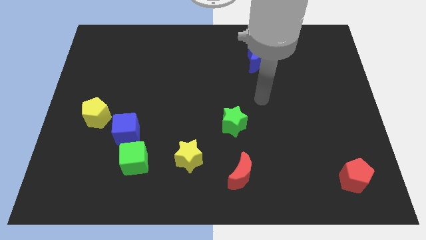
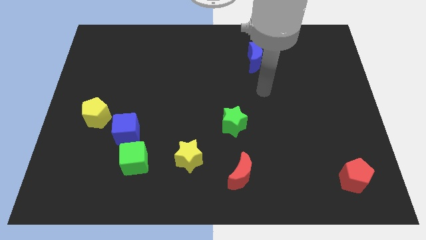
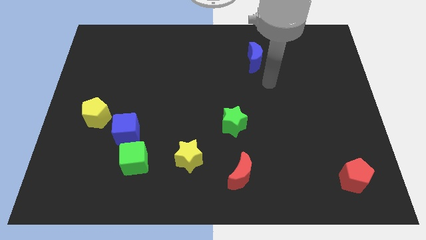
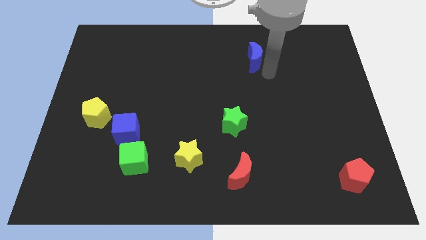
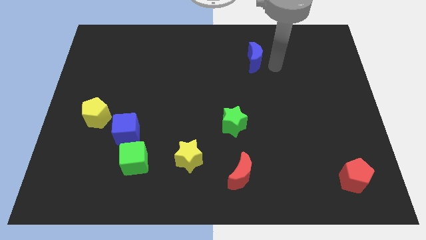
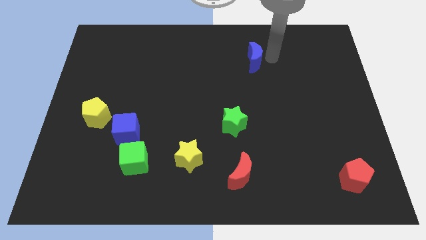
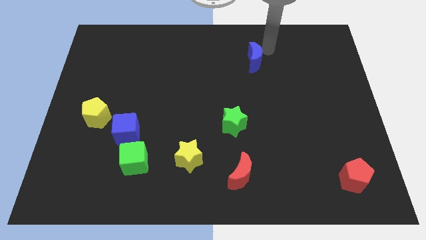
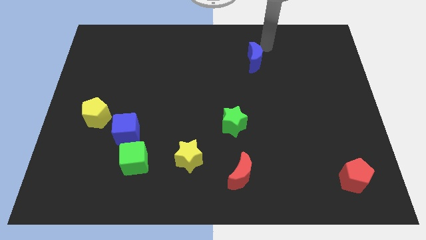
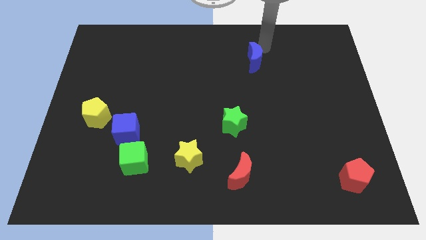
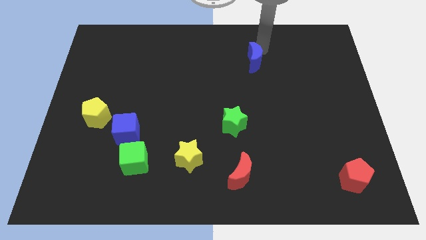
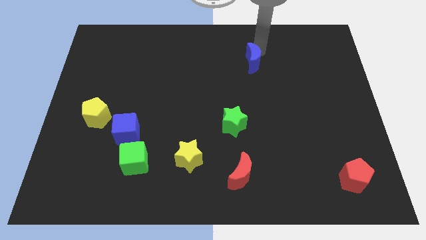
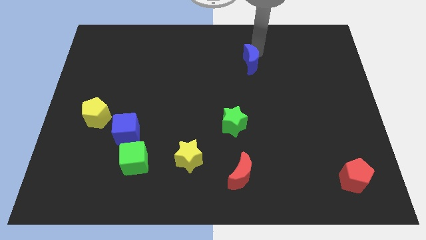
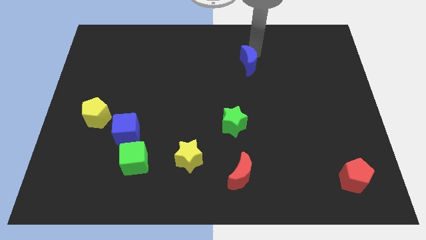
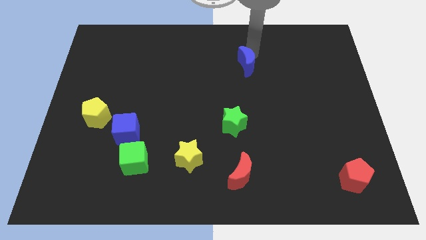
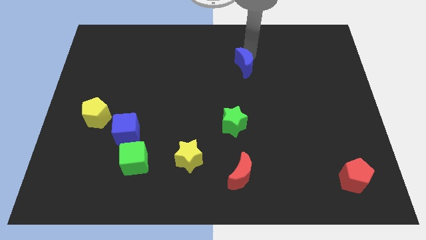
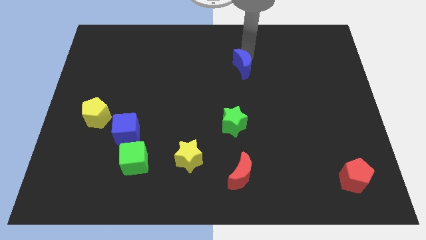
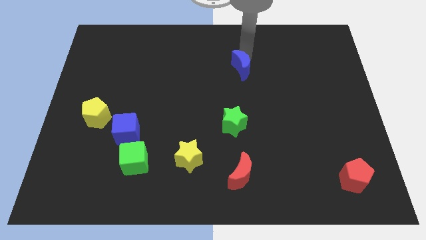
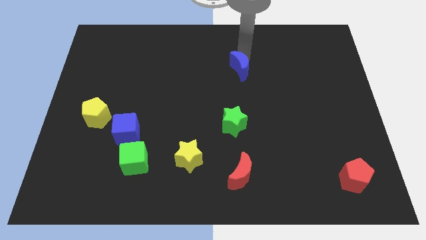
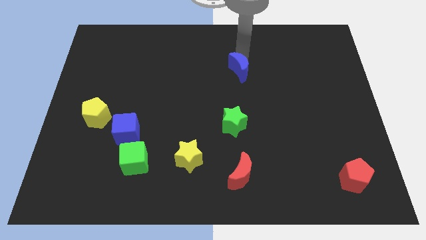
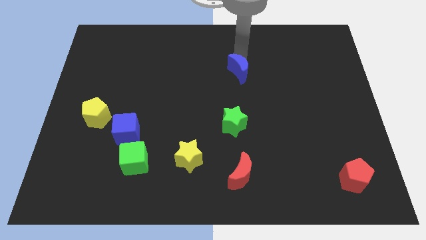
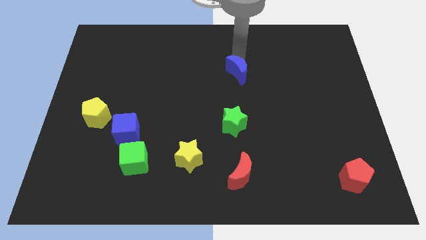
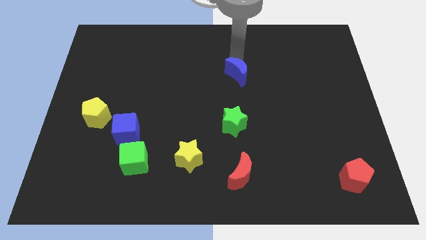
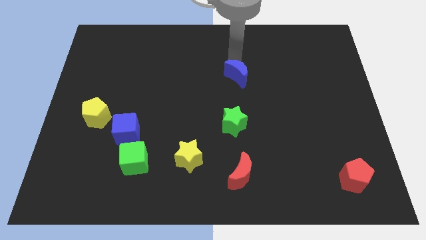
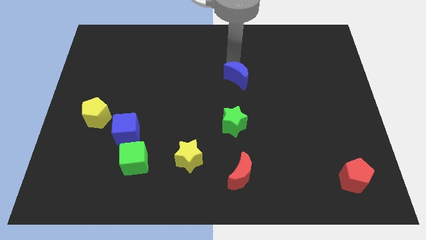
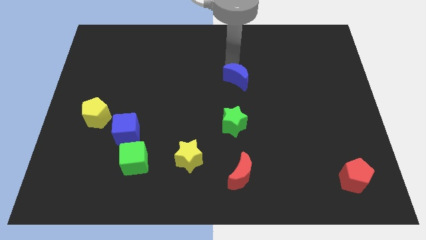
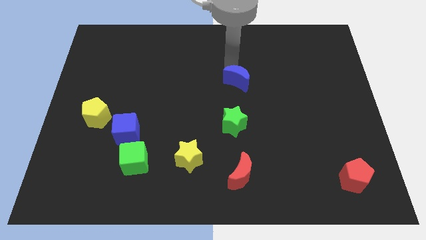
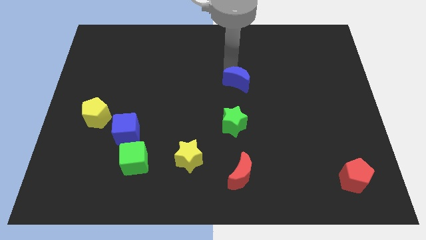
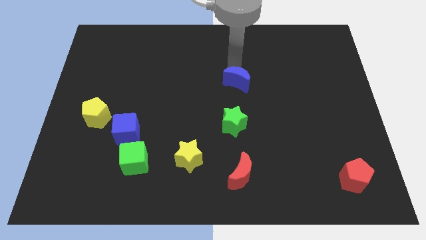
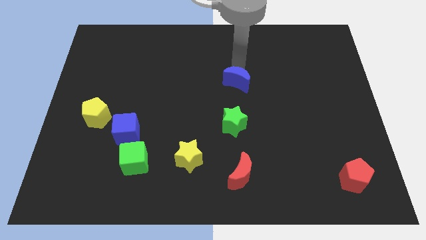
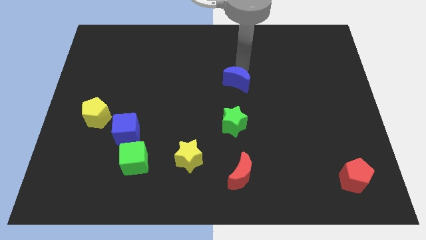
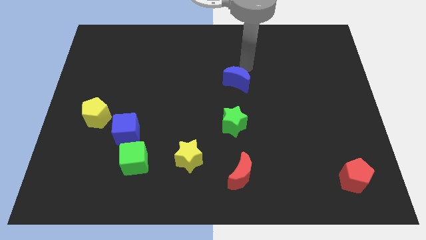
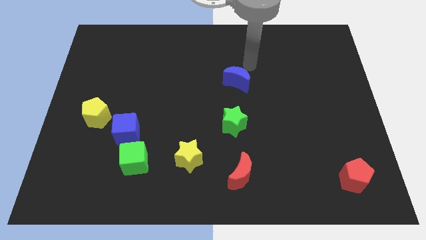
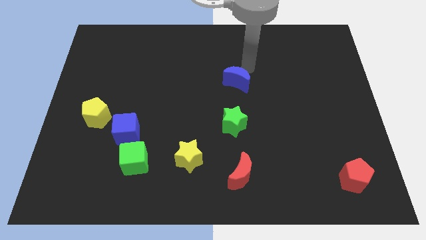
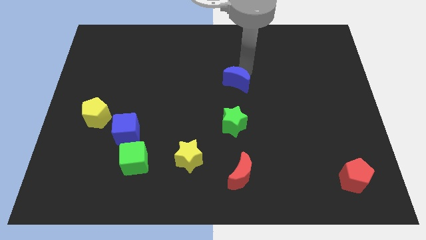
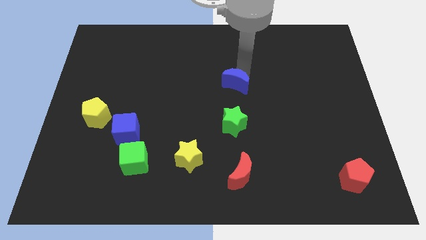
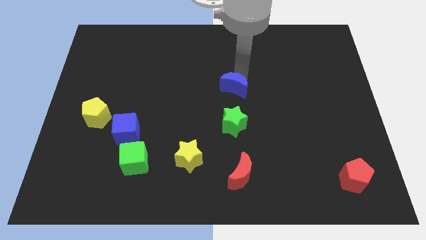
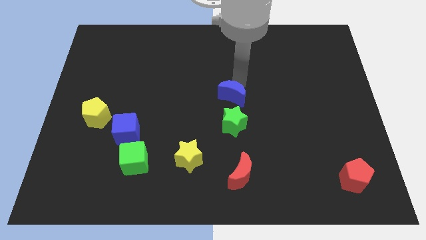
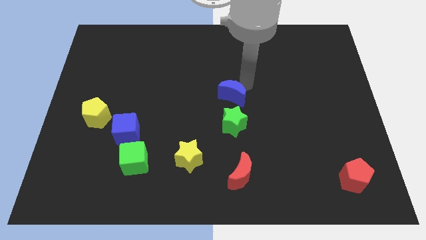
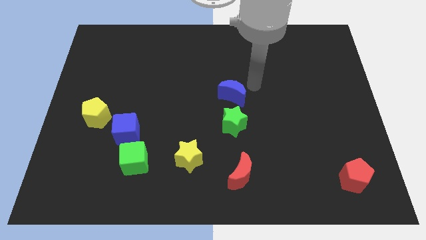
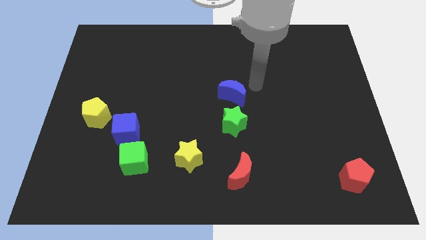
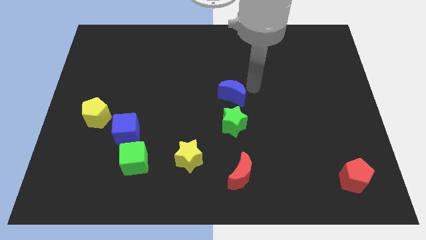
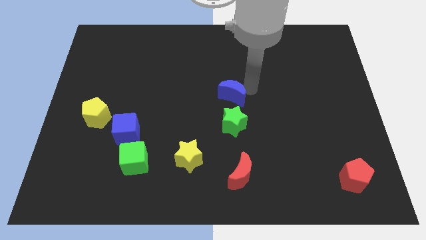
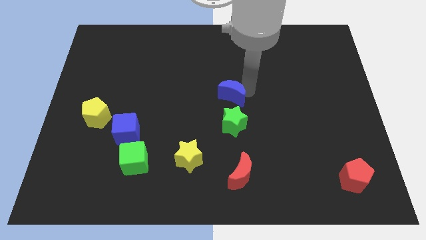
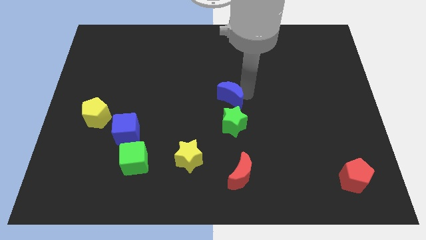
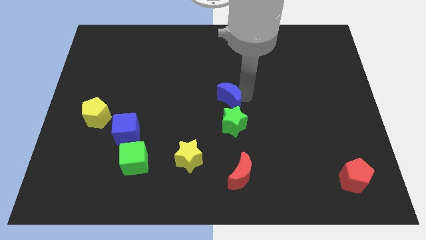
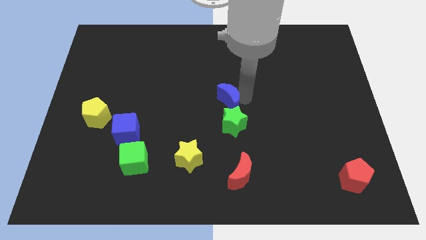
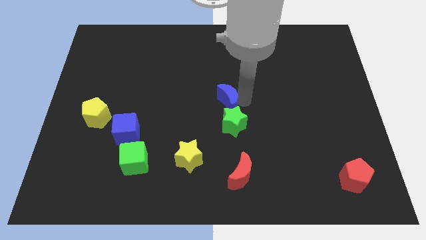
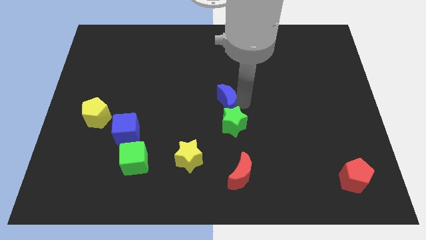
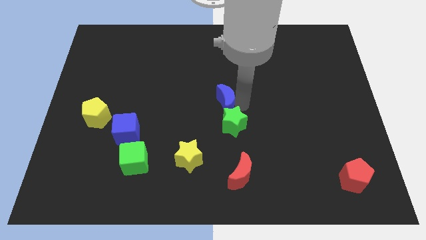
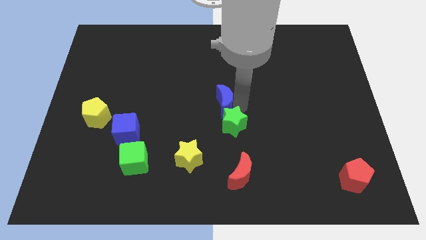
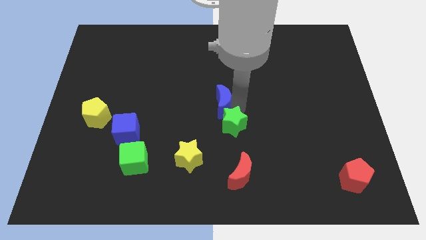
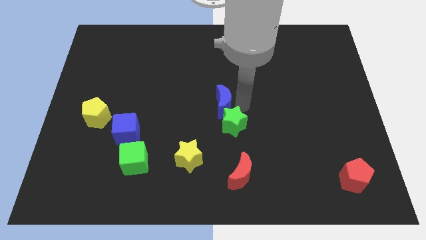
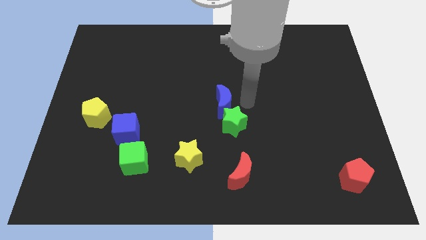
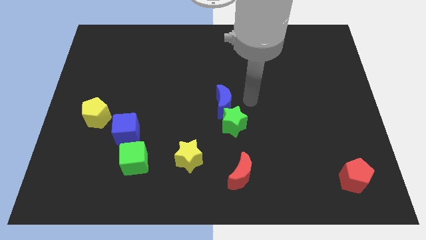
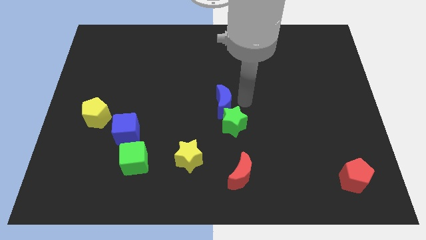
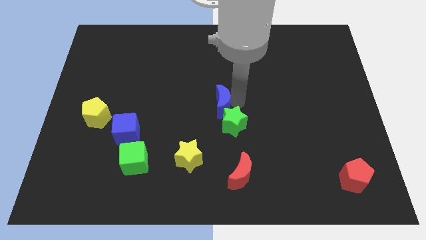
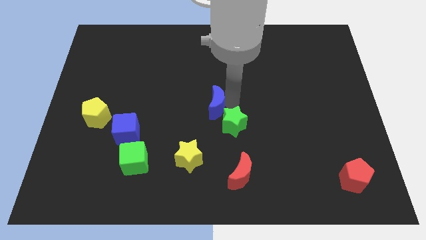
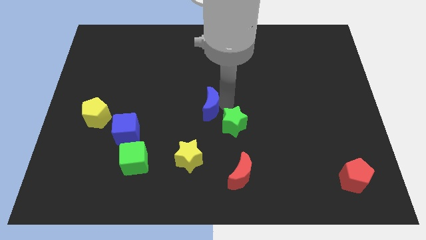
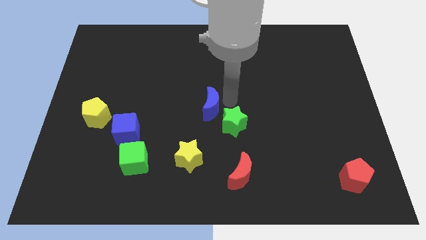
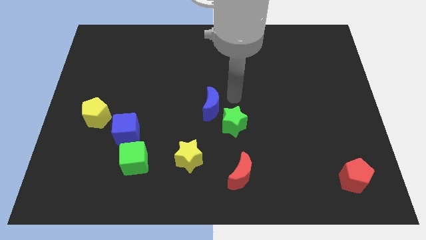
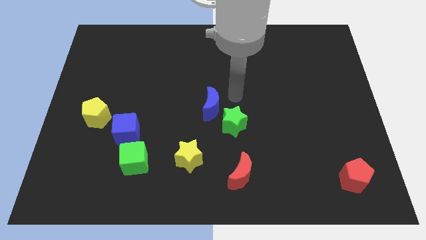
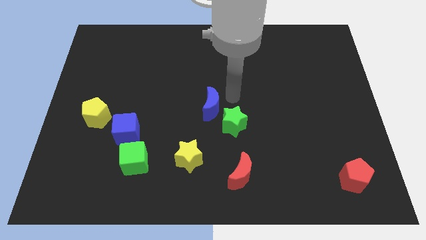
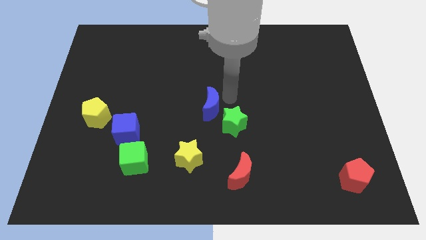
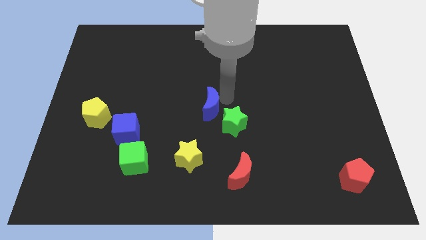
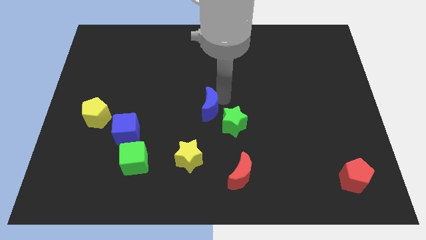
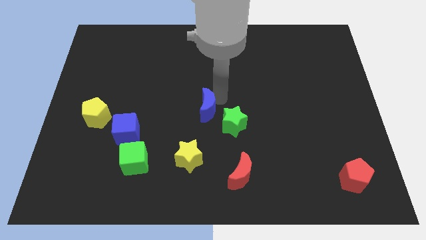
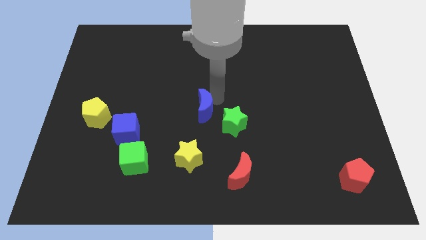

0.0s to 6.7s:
push the blue moon down and to the left diagonally

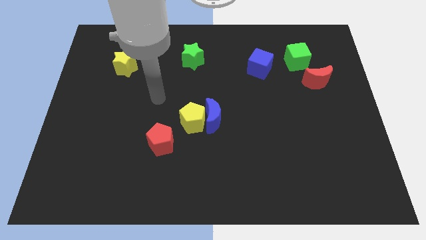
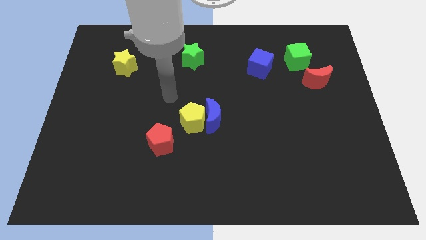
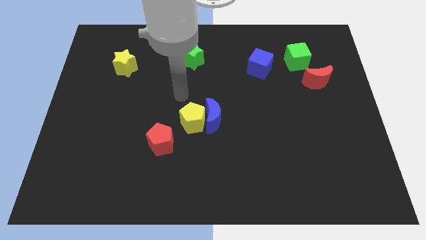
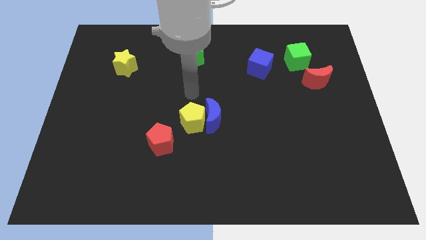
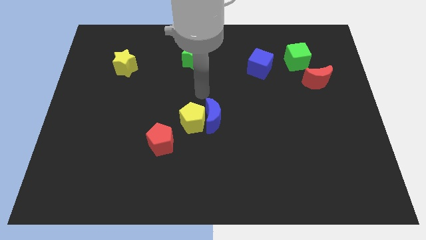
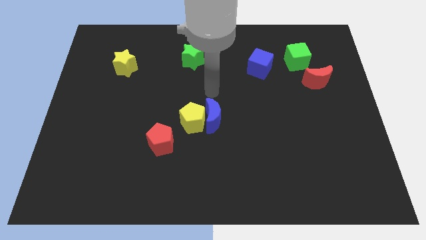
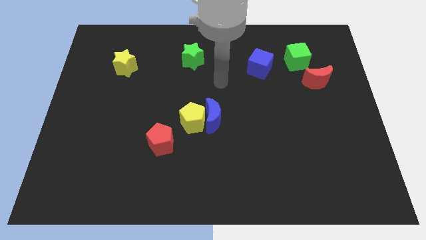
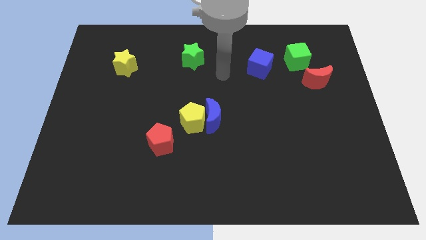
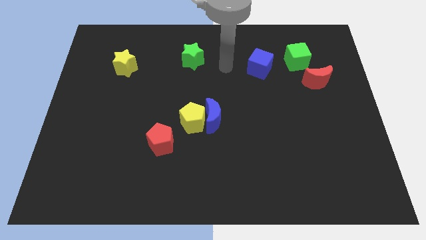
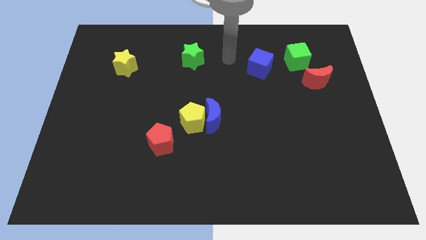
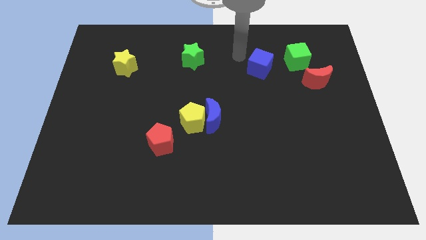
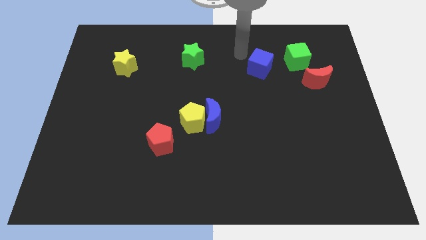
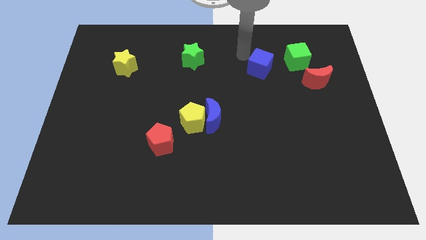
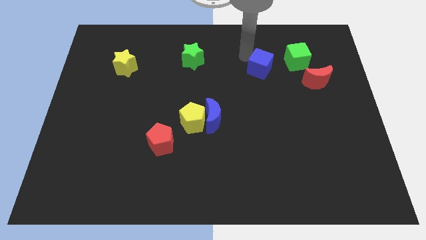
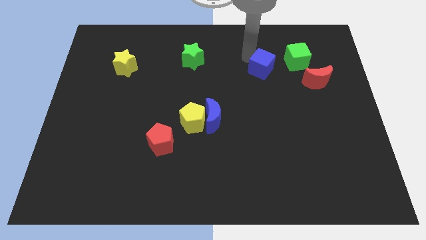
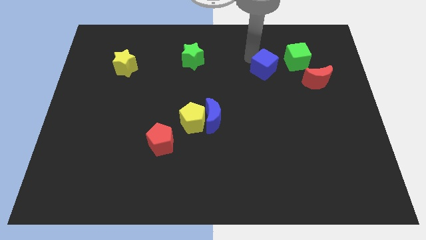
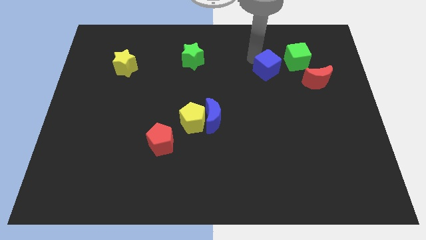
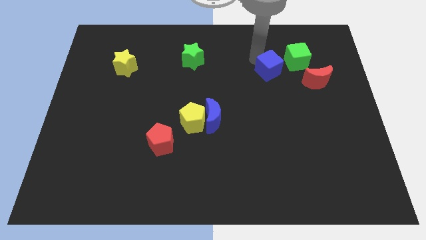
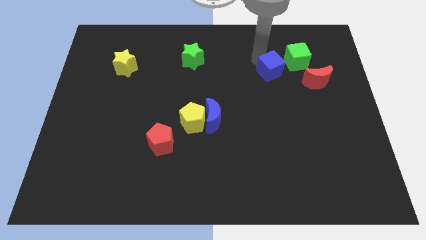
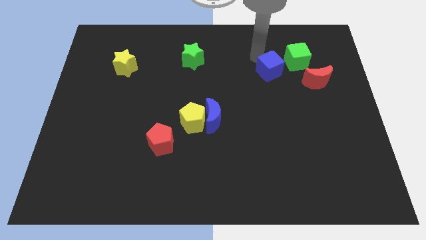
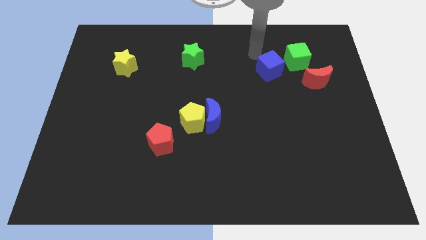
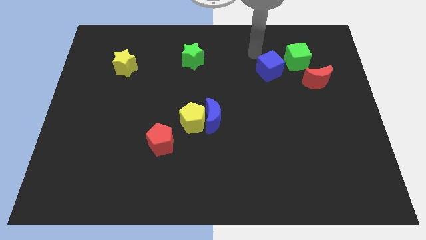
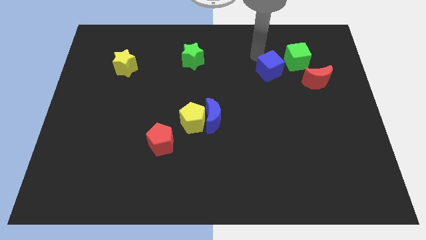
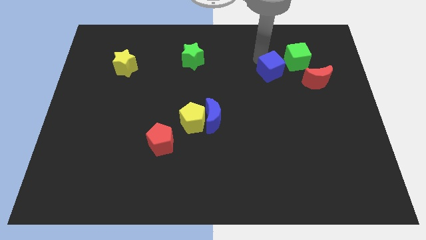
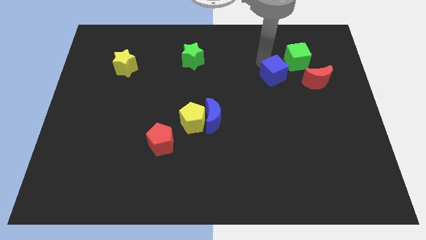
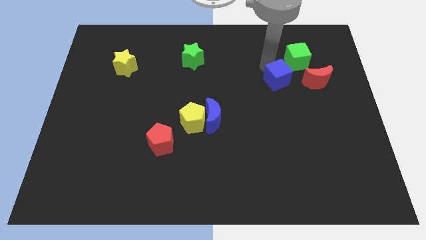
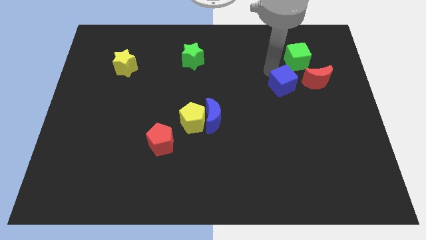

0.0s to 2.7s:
slightly move the blue cube down and to the right diagonally
